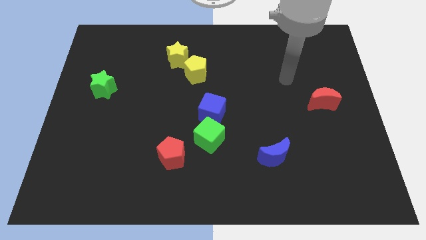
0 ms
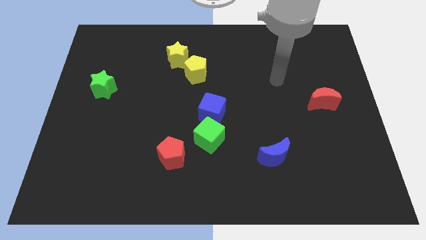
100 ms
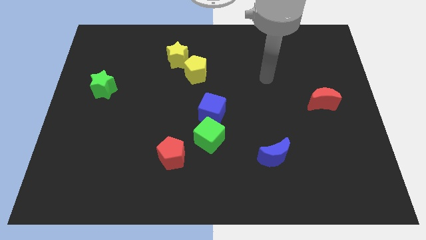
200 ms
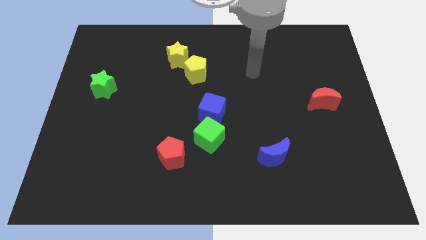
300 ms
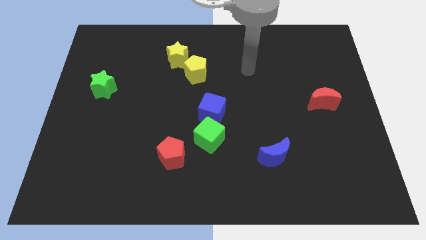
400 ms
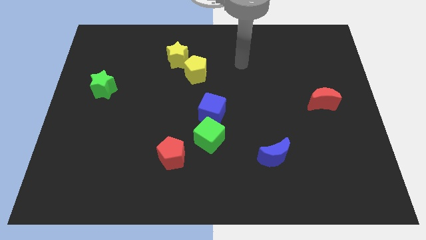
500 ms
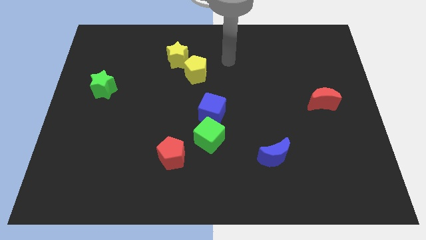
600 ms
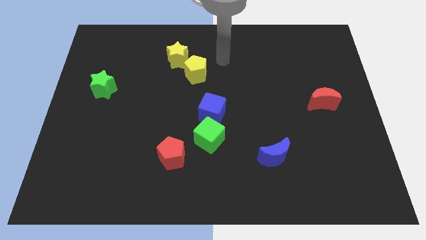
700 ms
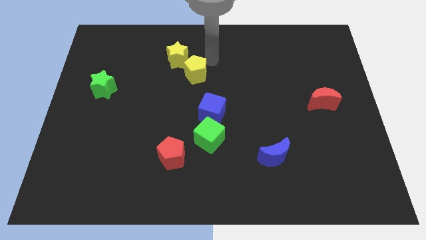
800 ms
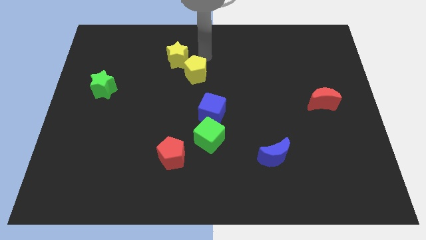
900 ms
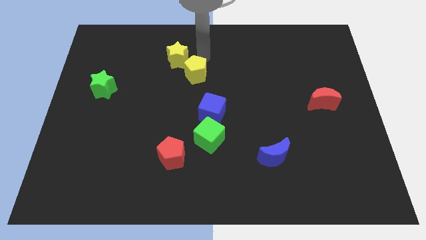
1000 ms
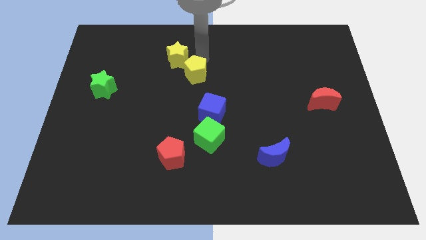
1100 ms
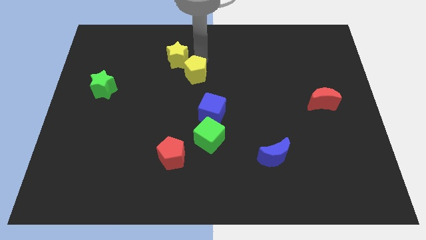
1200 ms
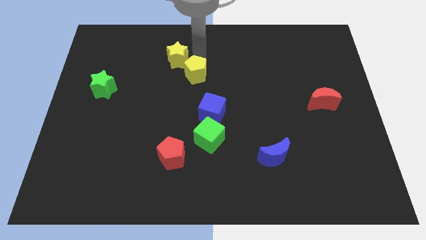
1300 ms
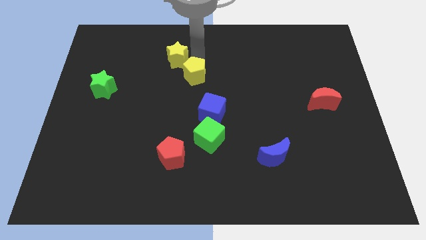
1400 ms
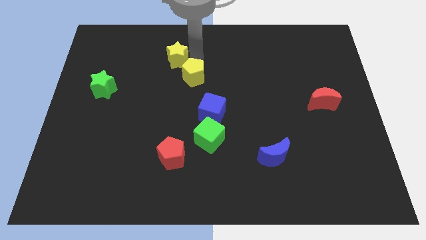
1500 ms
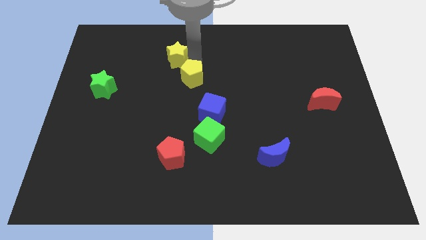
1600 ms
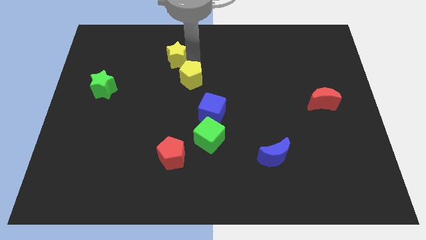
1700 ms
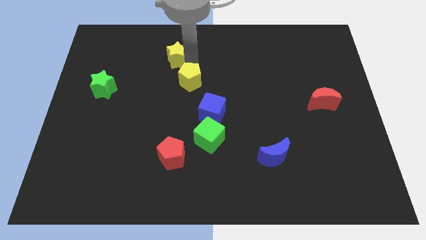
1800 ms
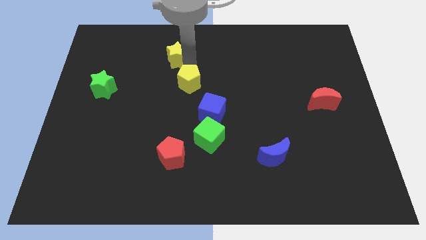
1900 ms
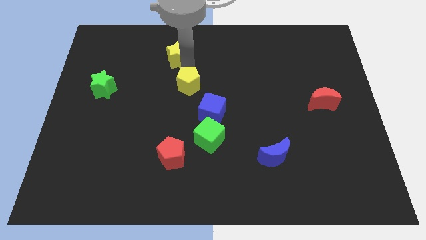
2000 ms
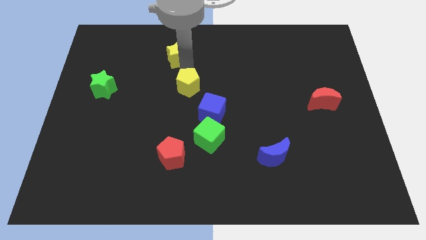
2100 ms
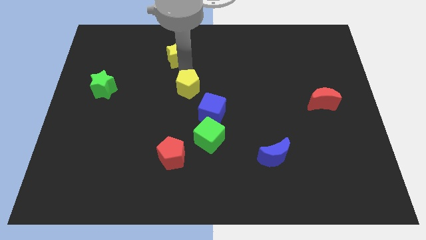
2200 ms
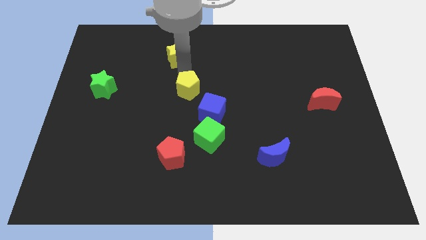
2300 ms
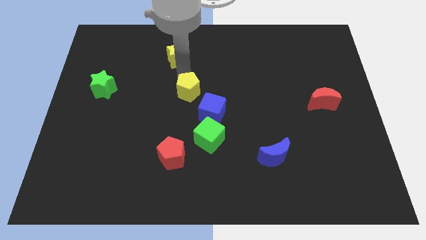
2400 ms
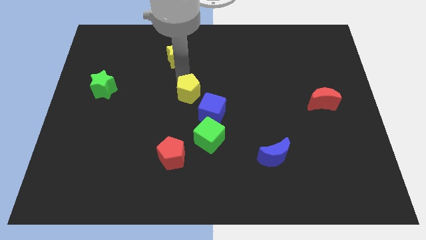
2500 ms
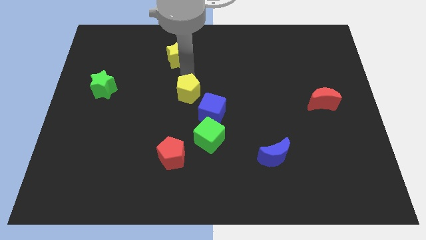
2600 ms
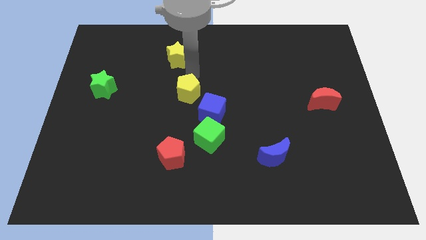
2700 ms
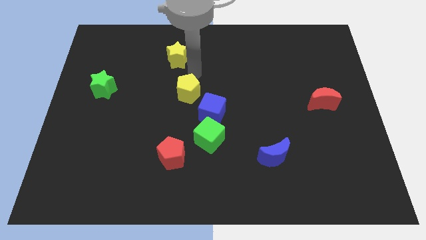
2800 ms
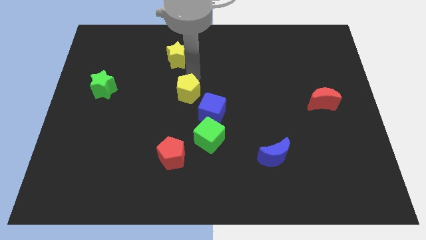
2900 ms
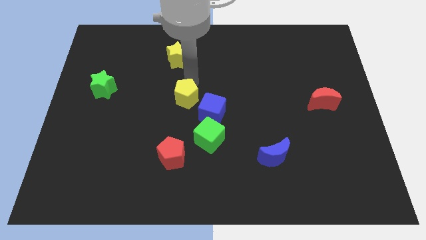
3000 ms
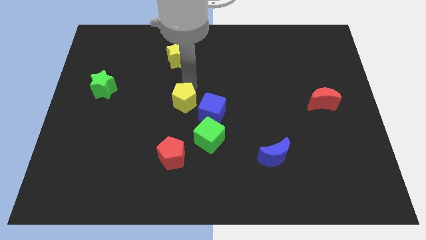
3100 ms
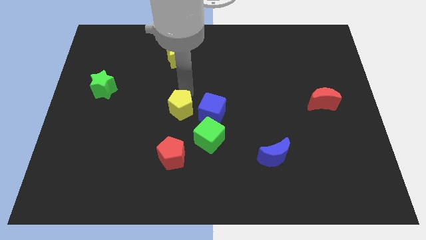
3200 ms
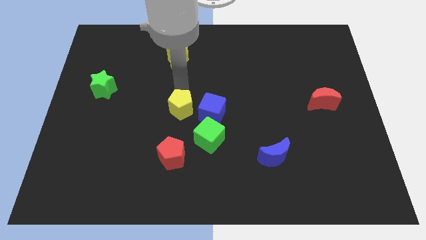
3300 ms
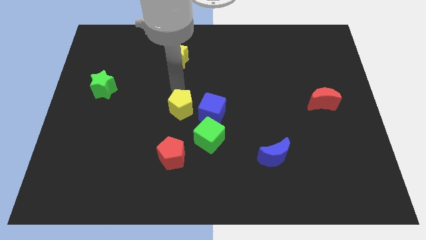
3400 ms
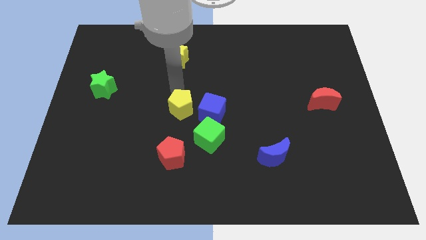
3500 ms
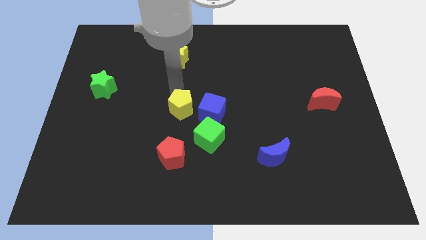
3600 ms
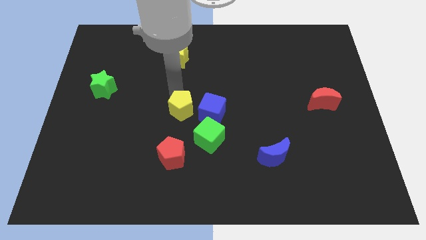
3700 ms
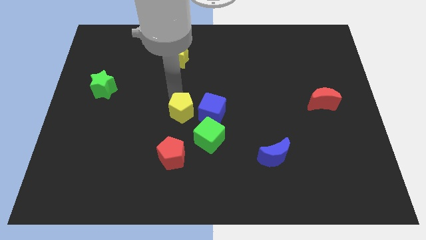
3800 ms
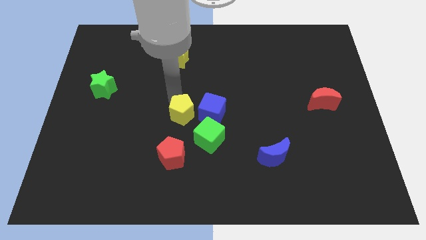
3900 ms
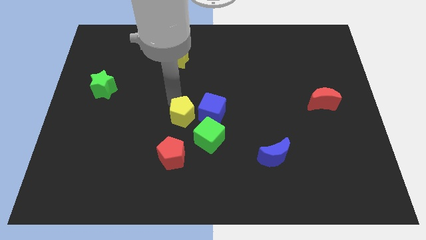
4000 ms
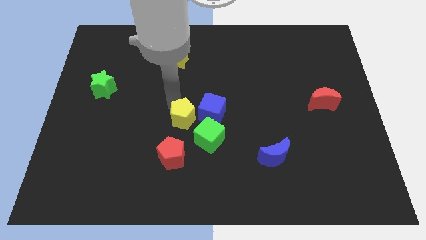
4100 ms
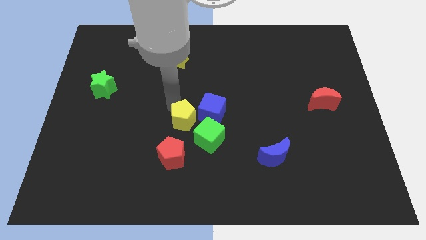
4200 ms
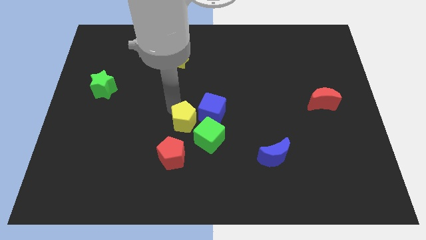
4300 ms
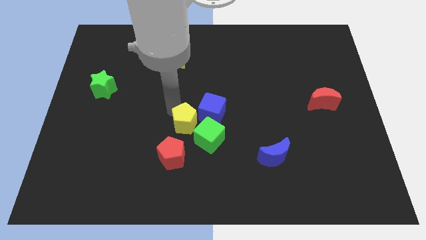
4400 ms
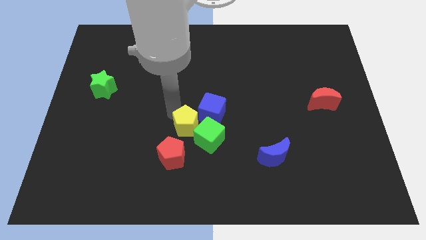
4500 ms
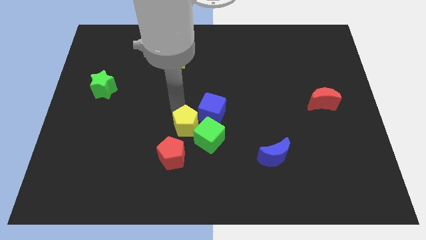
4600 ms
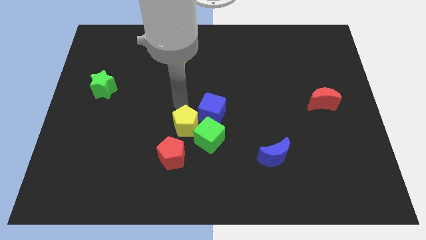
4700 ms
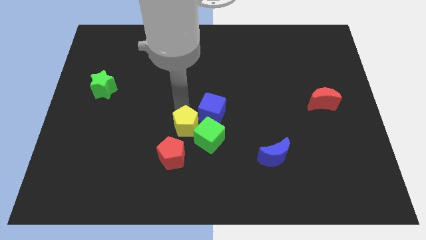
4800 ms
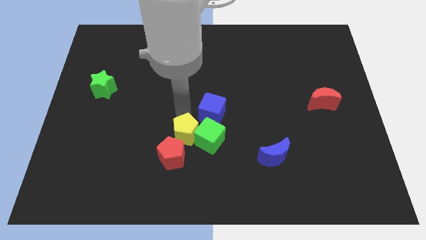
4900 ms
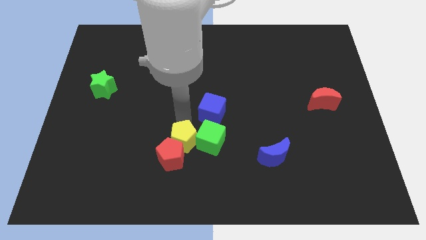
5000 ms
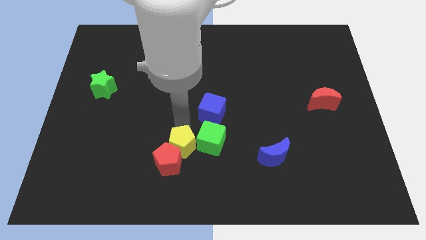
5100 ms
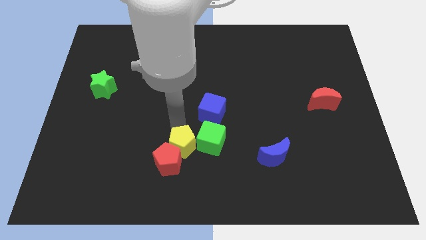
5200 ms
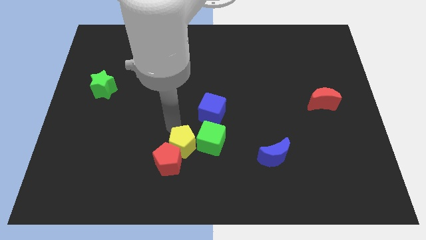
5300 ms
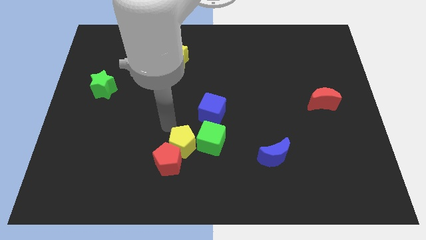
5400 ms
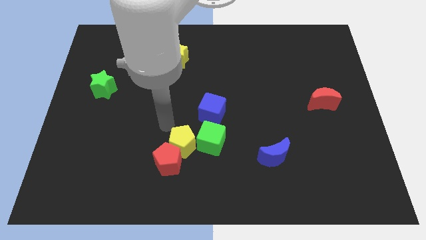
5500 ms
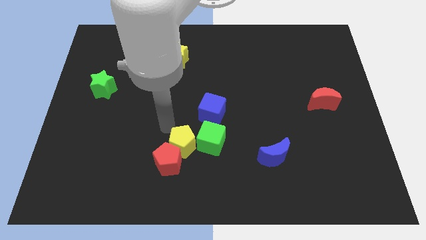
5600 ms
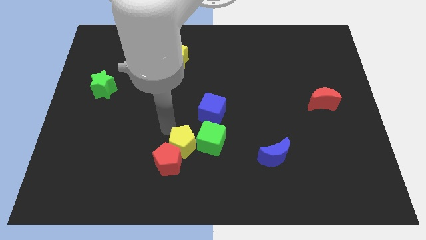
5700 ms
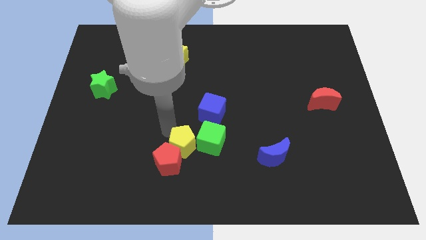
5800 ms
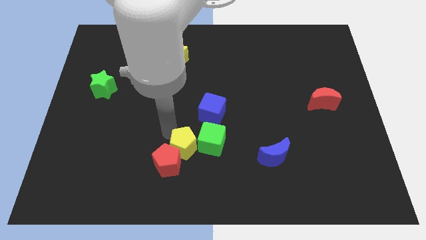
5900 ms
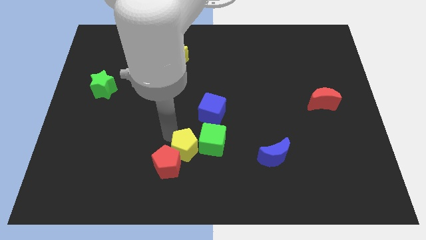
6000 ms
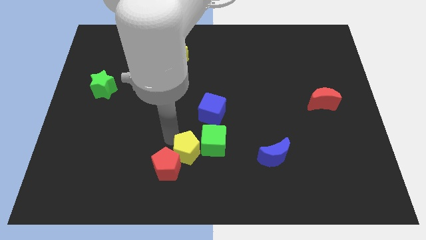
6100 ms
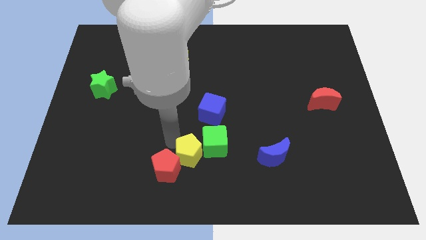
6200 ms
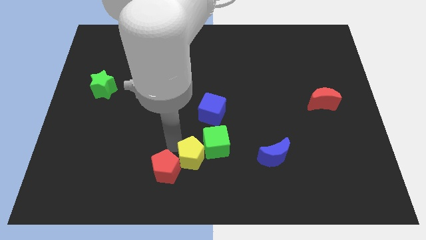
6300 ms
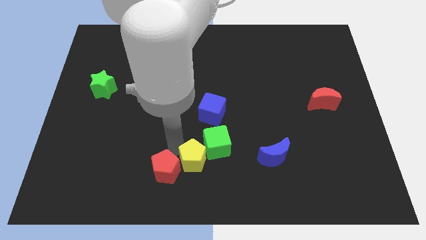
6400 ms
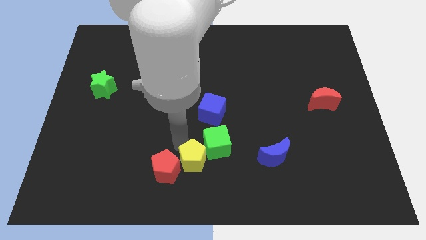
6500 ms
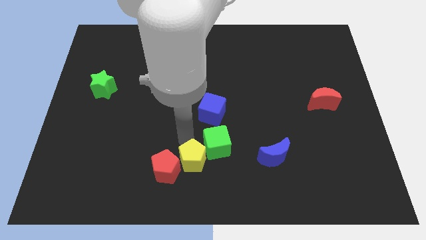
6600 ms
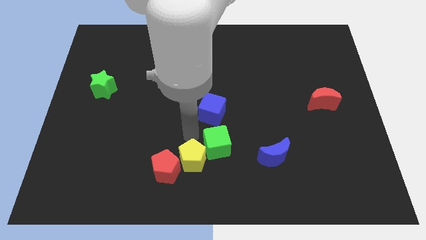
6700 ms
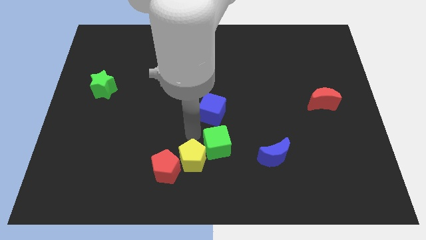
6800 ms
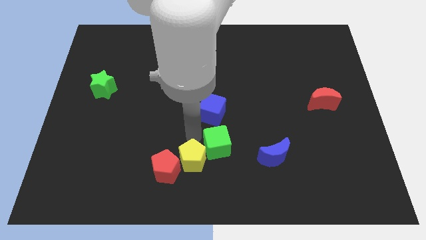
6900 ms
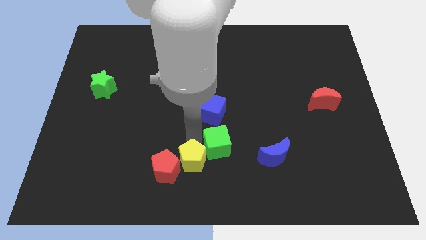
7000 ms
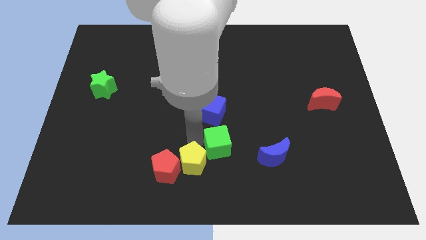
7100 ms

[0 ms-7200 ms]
slide the yellow pentagon to the bottom right of the red pentagon
